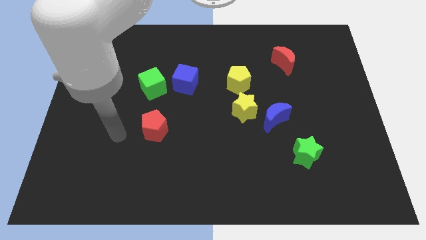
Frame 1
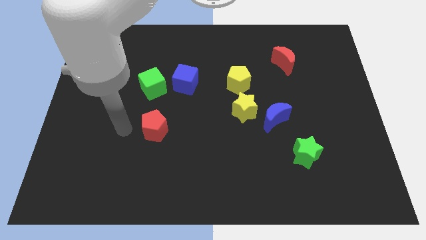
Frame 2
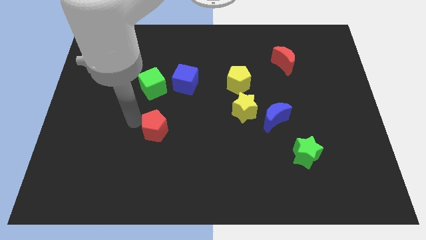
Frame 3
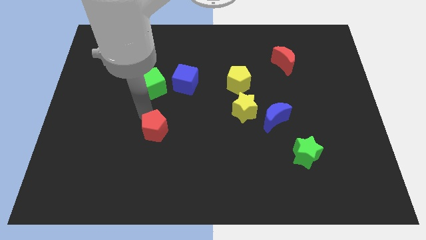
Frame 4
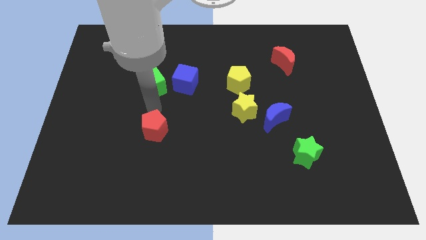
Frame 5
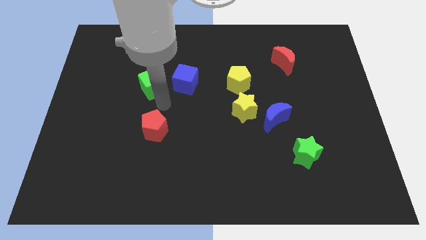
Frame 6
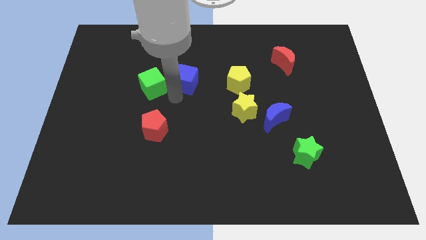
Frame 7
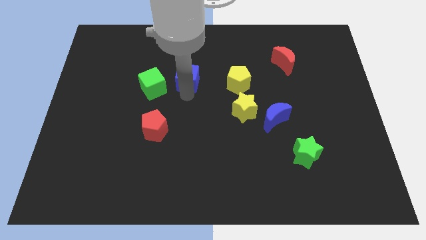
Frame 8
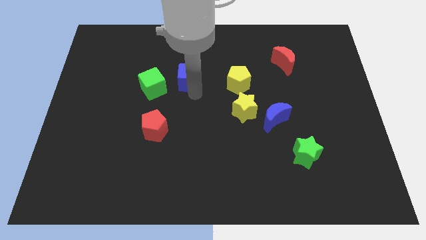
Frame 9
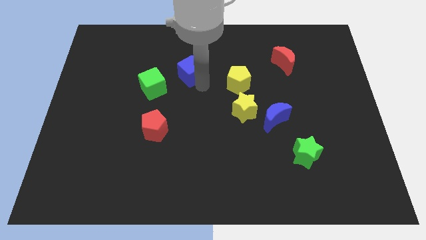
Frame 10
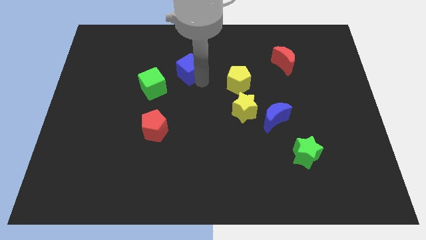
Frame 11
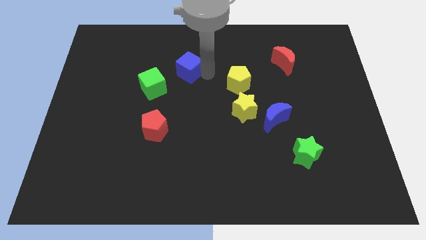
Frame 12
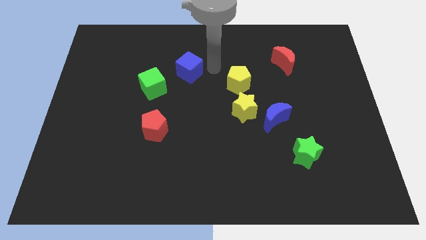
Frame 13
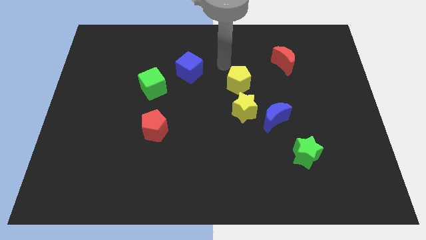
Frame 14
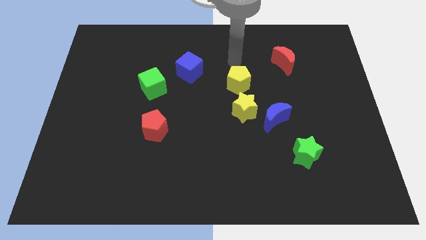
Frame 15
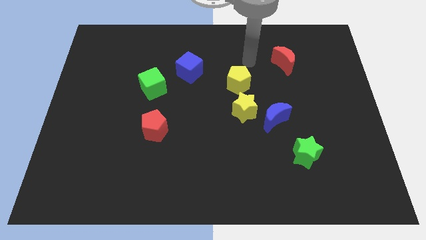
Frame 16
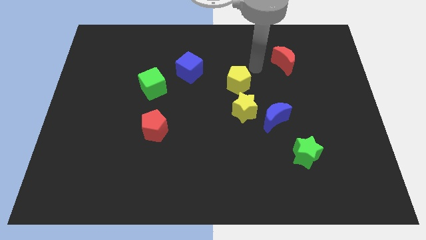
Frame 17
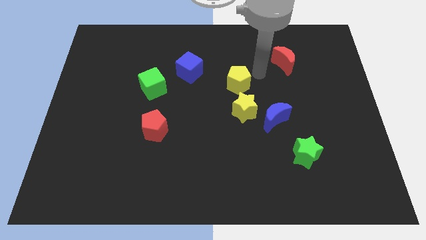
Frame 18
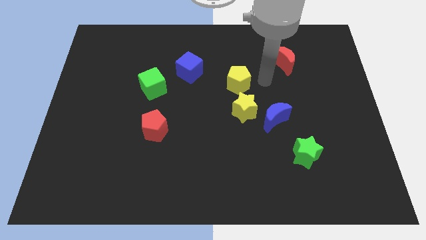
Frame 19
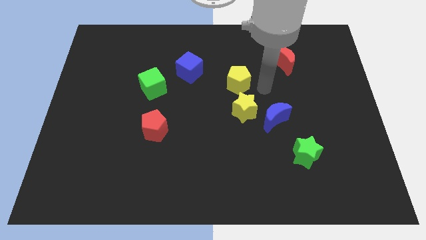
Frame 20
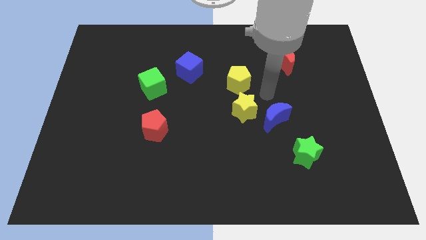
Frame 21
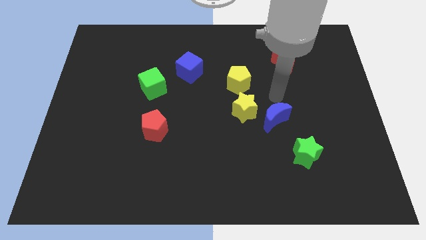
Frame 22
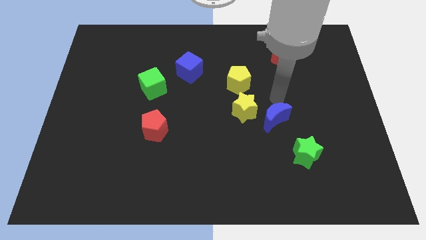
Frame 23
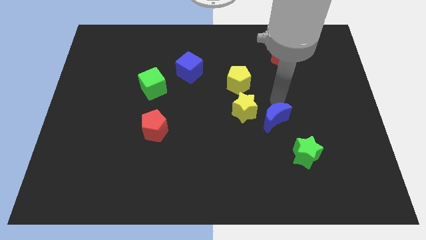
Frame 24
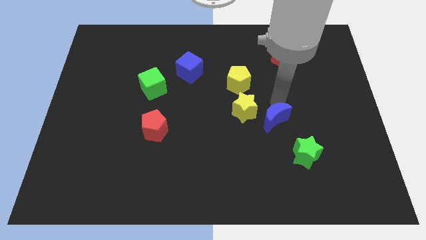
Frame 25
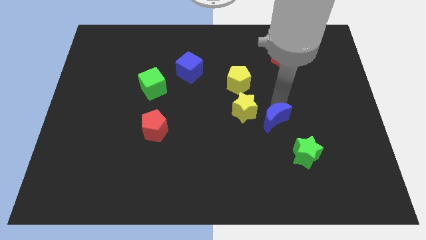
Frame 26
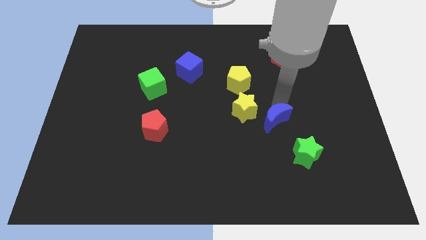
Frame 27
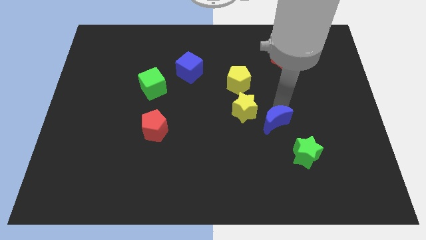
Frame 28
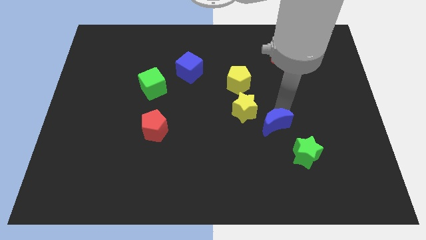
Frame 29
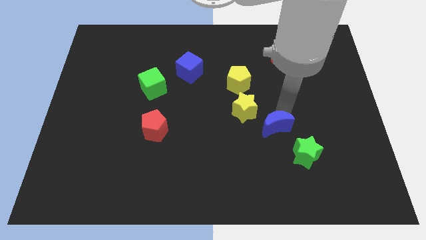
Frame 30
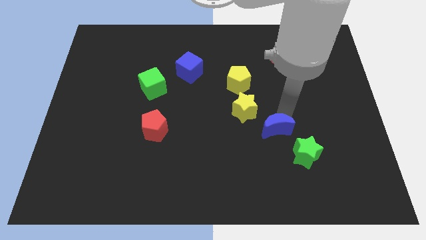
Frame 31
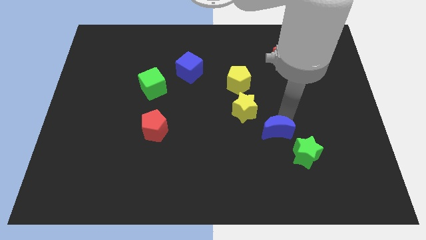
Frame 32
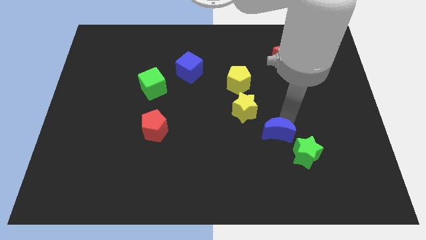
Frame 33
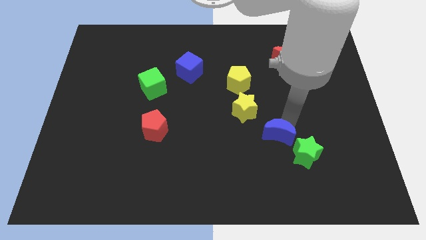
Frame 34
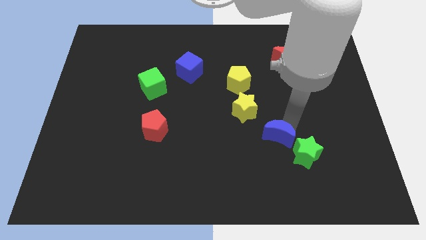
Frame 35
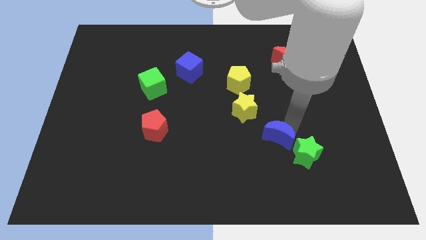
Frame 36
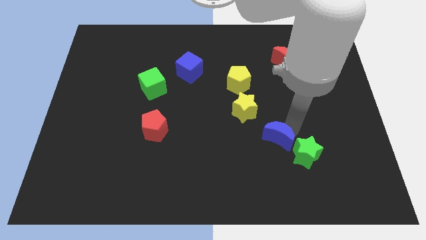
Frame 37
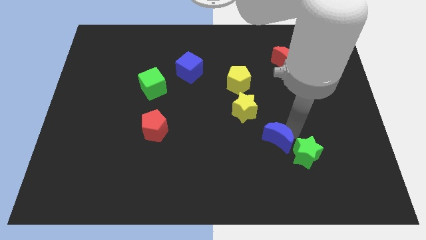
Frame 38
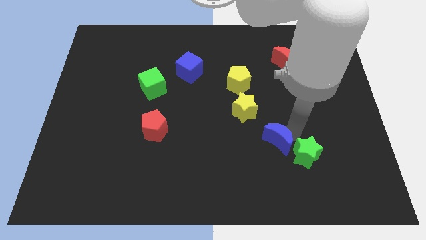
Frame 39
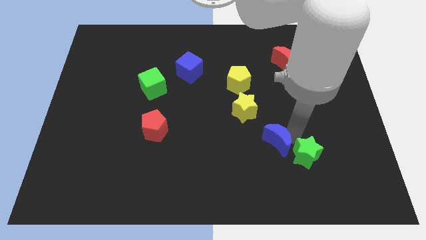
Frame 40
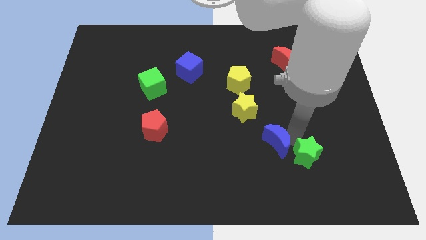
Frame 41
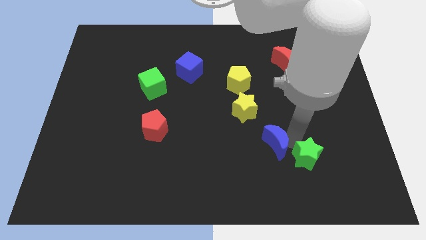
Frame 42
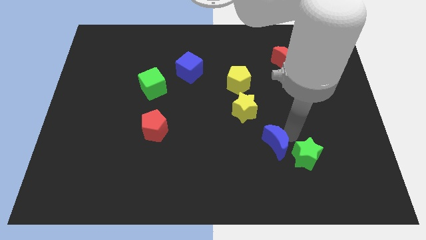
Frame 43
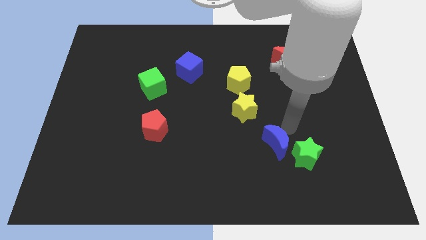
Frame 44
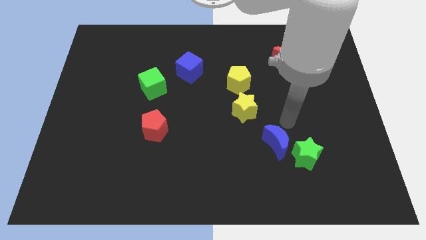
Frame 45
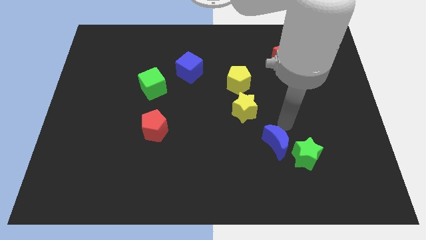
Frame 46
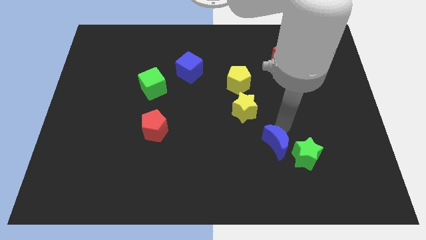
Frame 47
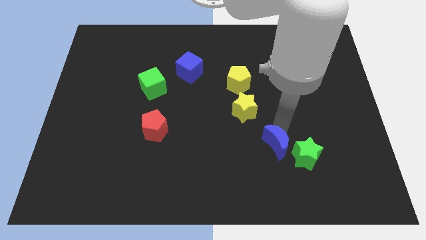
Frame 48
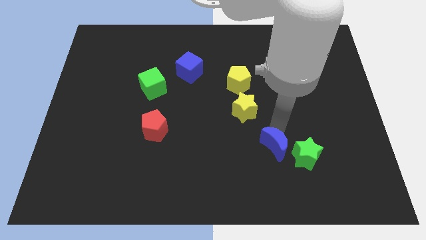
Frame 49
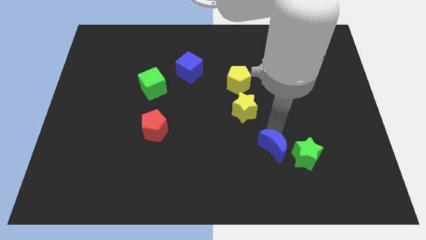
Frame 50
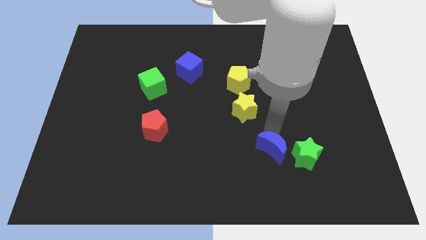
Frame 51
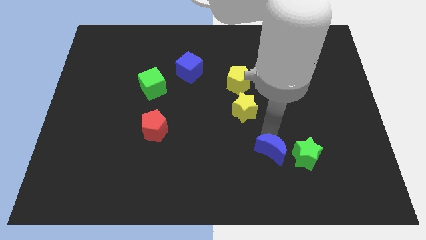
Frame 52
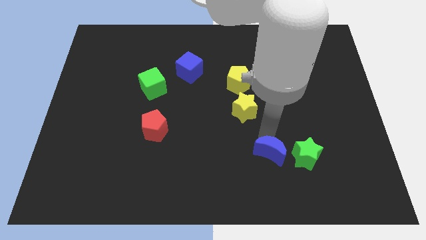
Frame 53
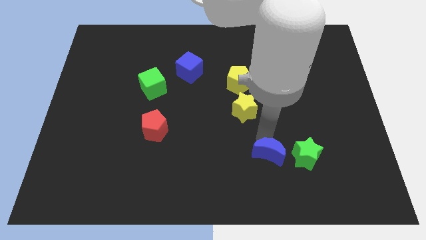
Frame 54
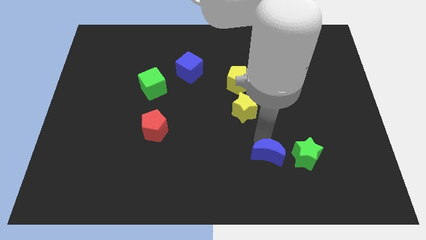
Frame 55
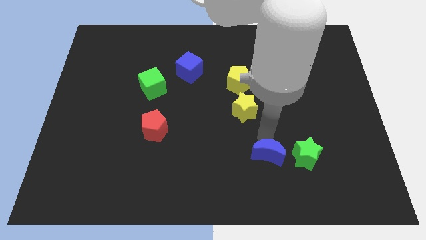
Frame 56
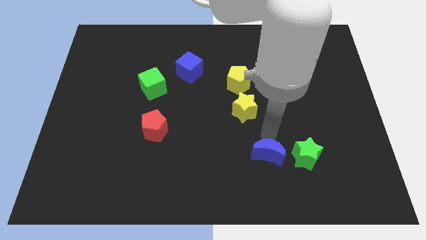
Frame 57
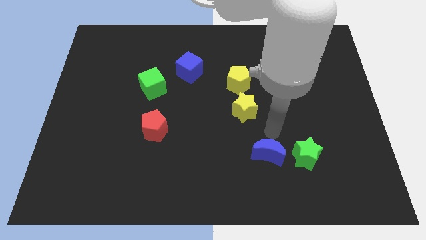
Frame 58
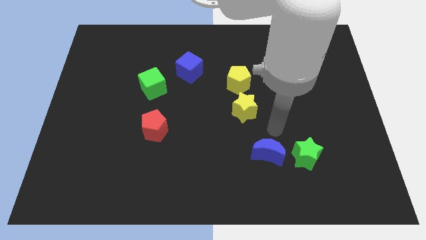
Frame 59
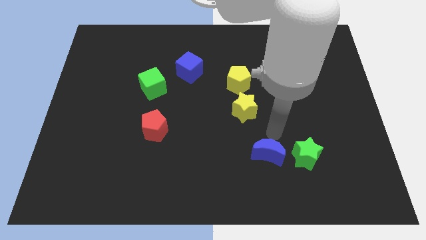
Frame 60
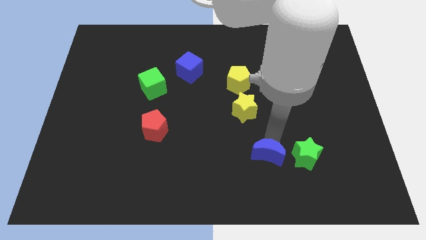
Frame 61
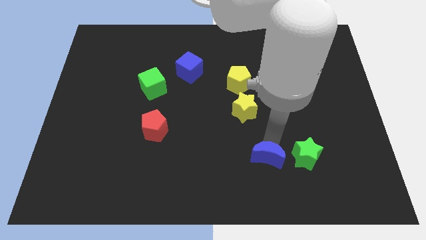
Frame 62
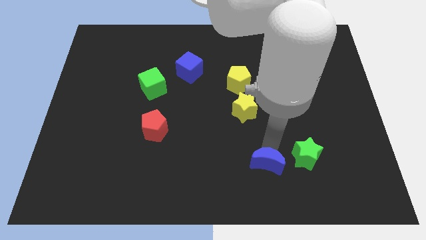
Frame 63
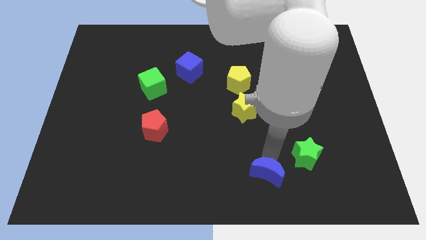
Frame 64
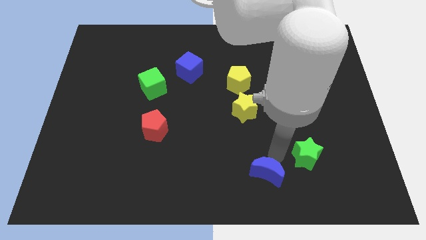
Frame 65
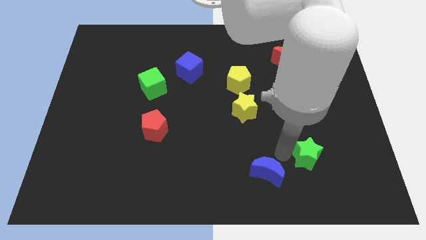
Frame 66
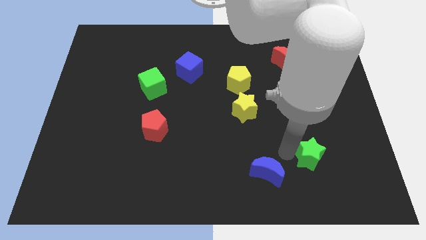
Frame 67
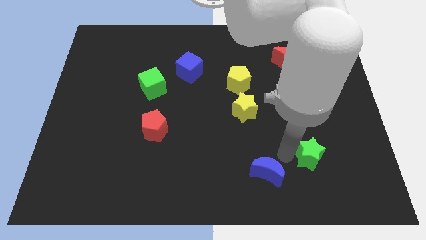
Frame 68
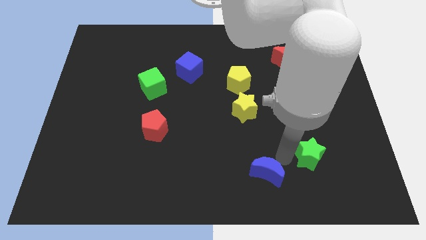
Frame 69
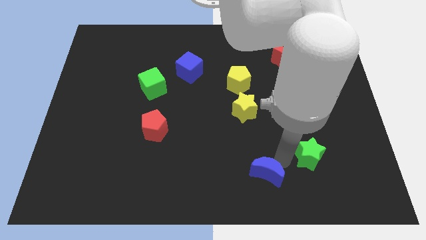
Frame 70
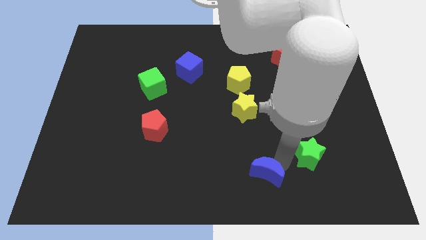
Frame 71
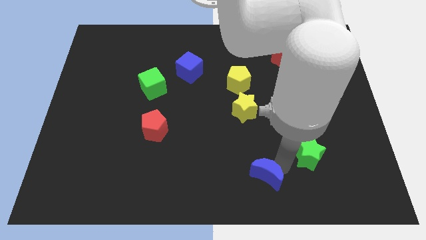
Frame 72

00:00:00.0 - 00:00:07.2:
move the blue moon to the bottom
